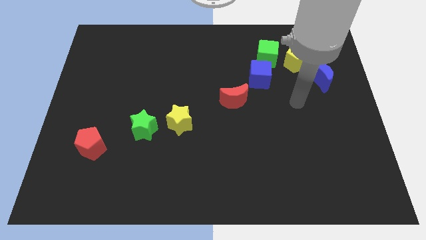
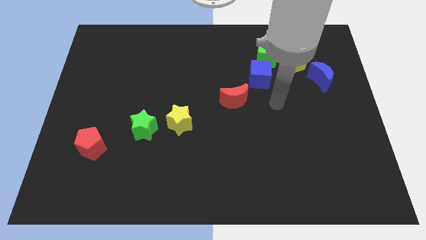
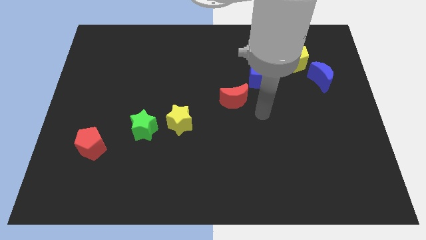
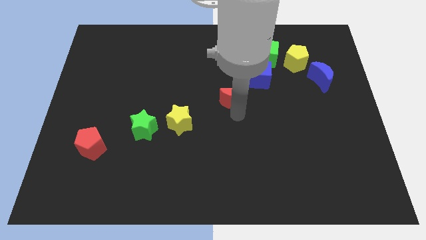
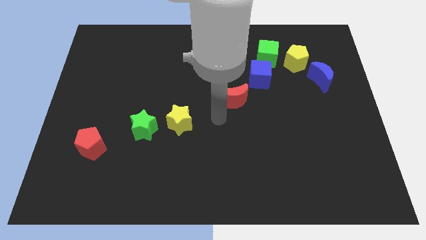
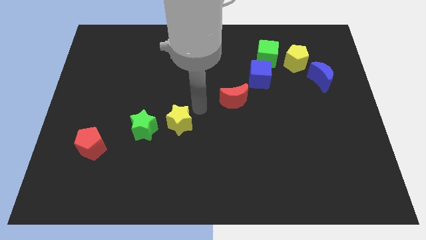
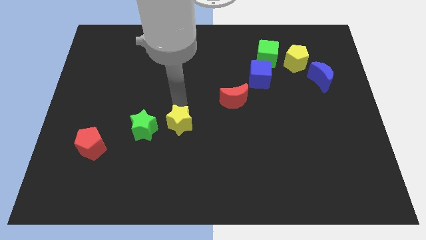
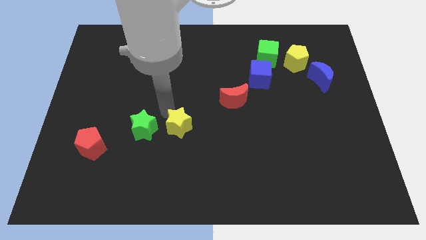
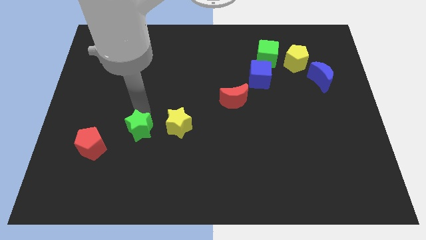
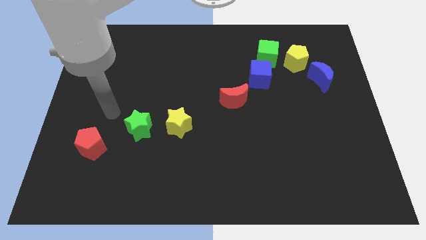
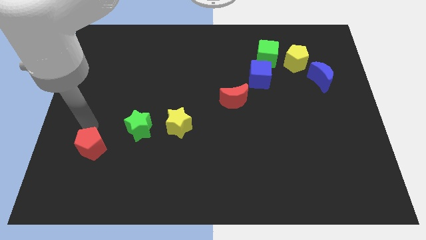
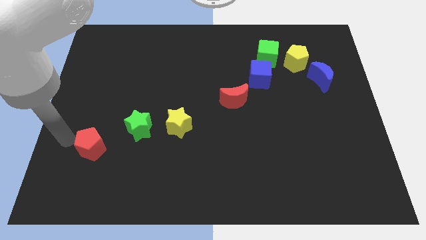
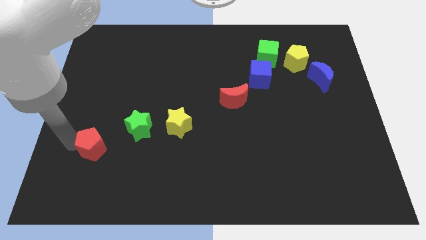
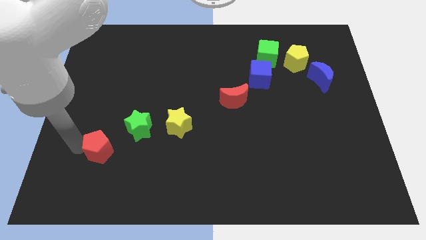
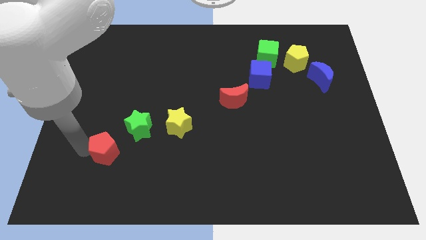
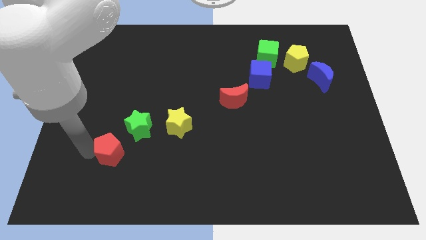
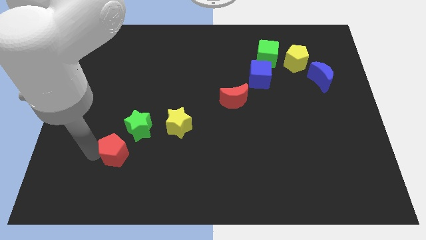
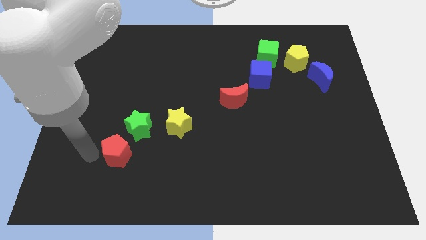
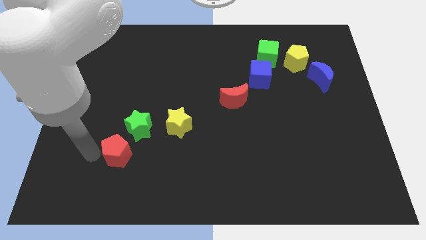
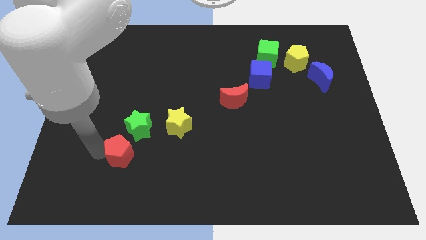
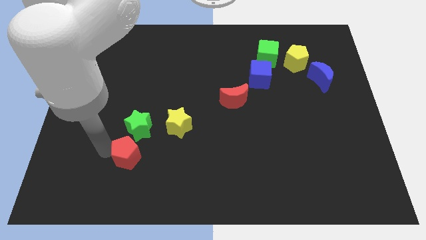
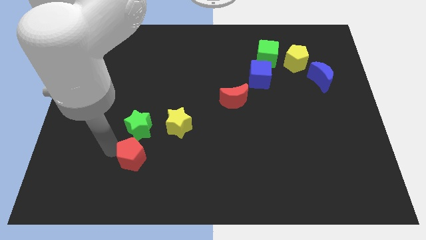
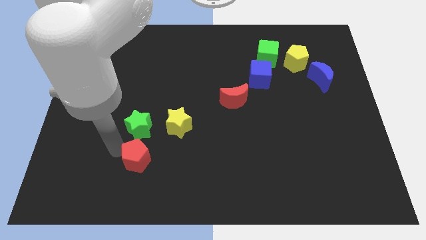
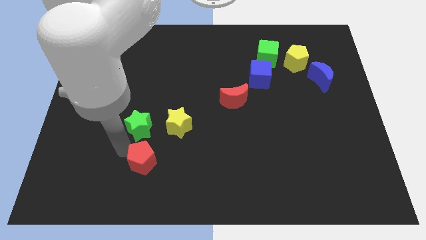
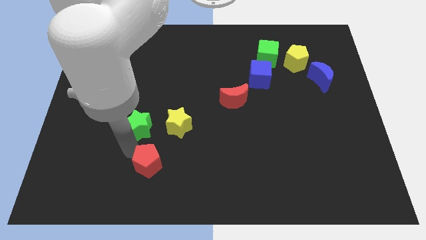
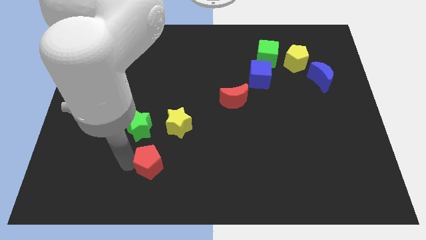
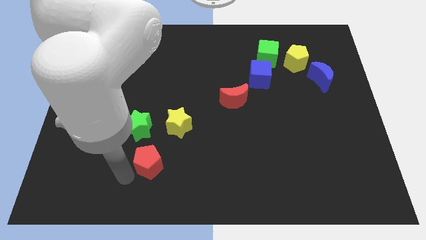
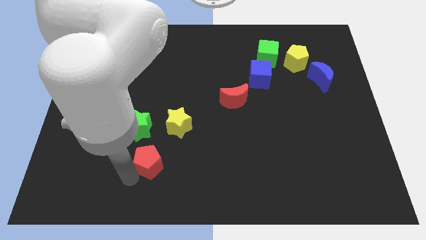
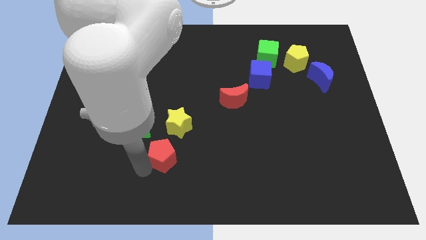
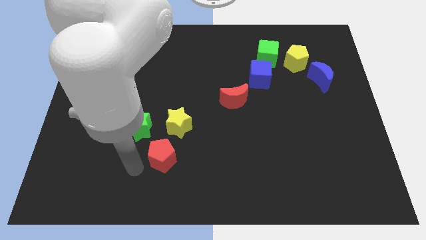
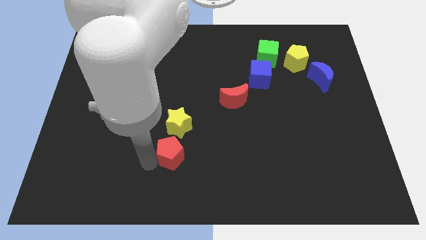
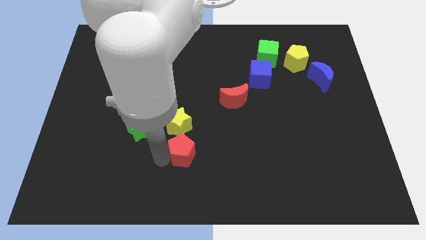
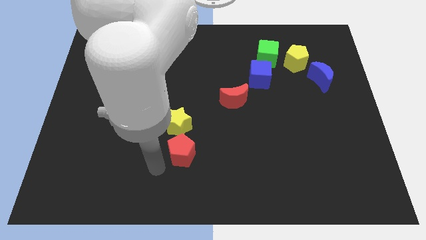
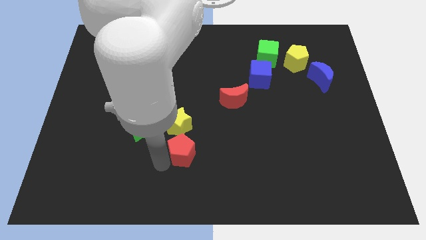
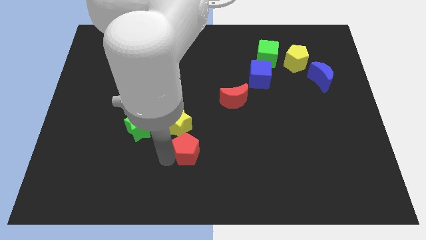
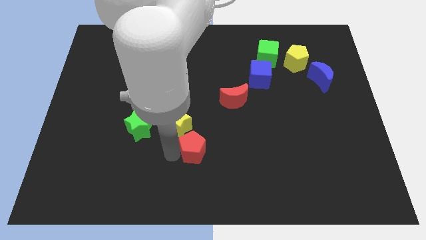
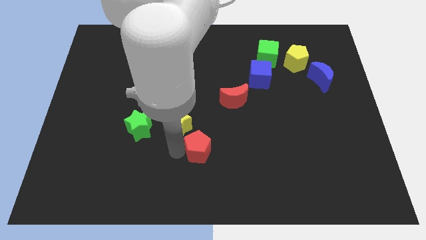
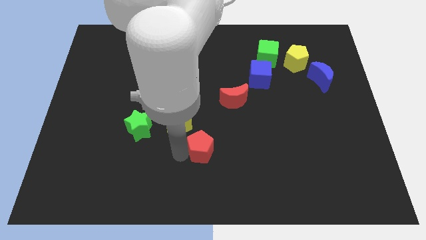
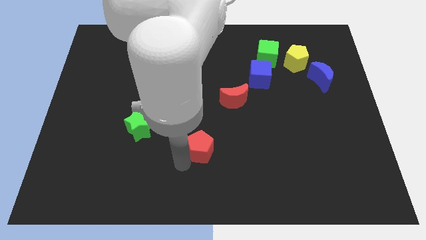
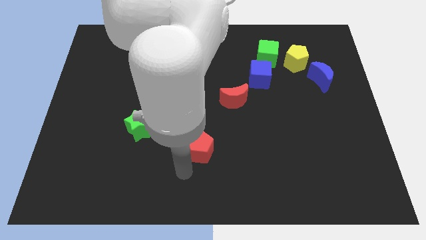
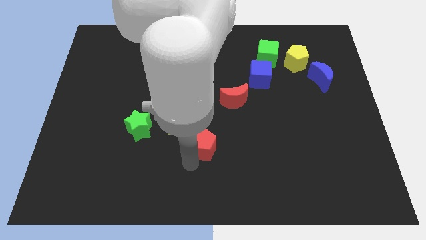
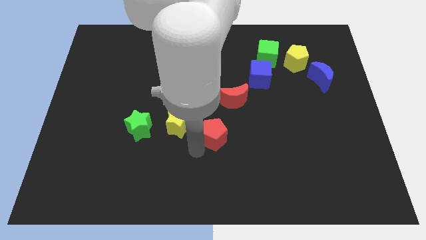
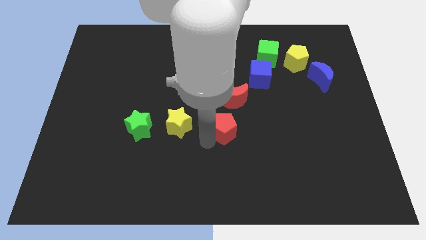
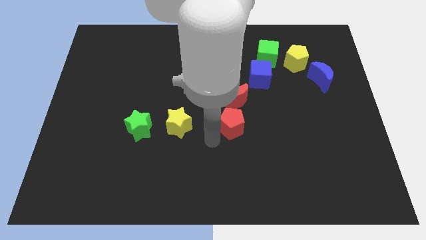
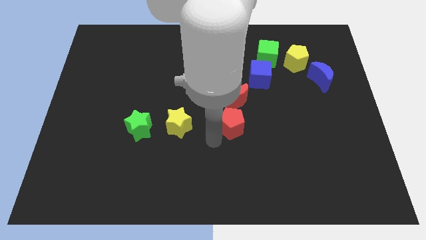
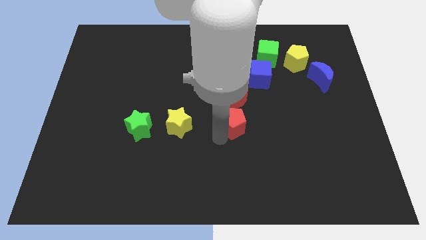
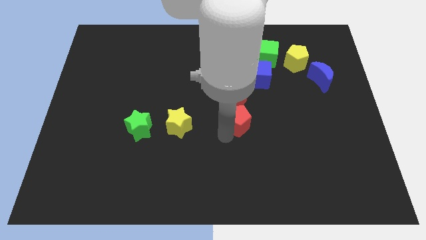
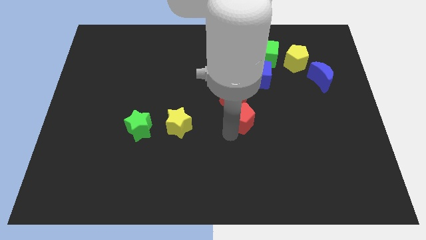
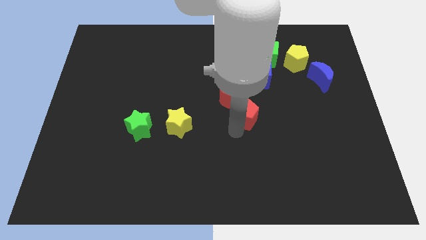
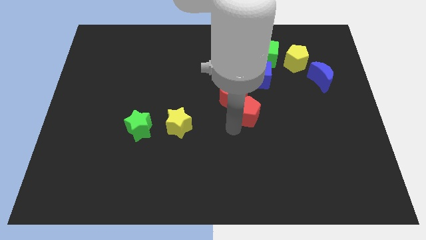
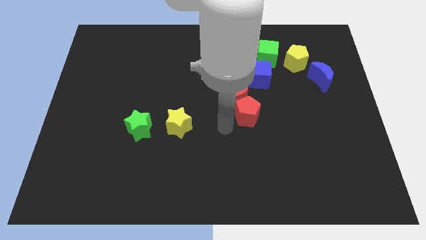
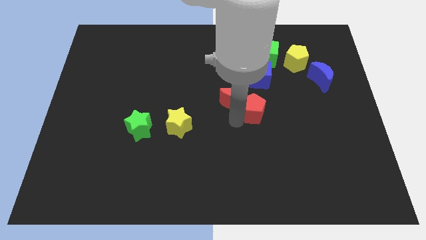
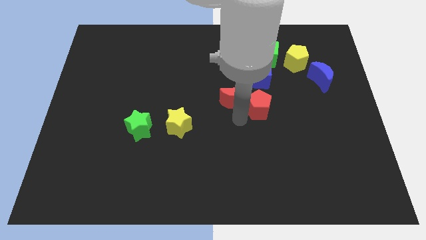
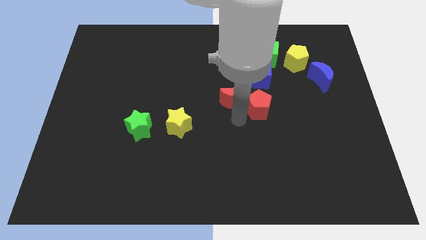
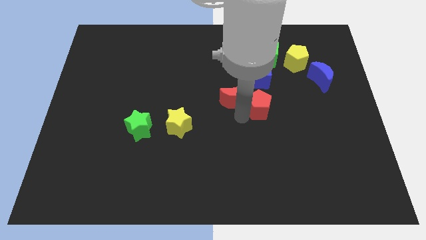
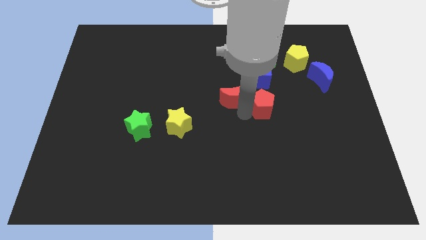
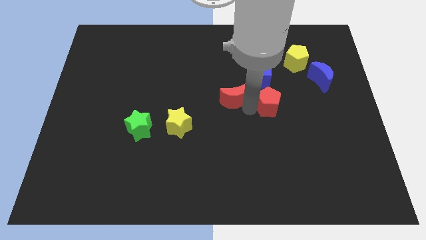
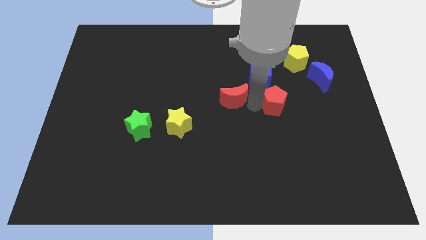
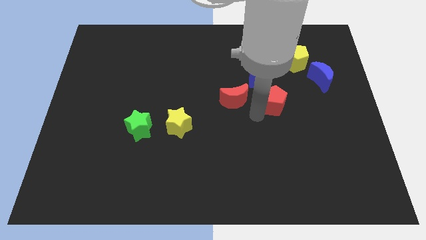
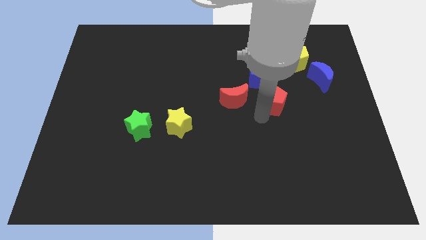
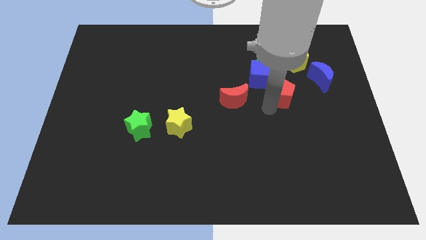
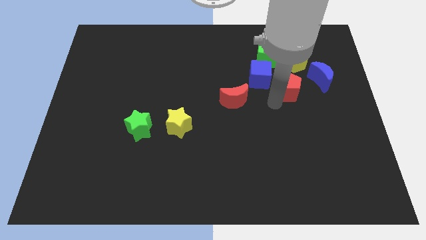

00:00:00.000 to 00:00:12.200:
slide the red pentagon to the right side of the blue cube
